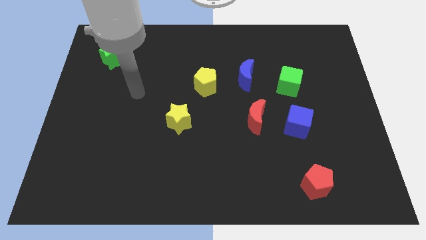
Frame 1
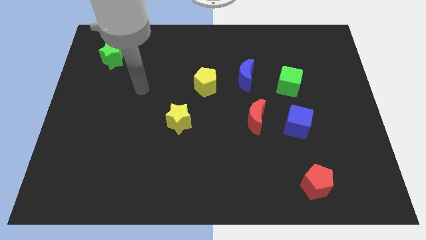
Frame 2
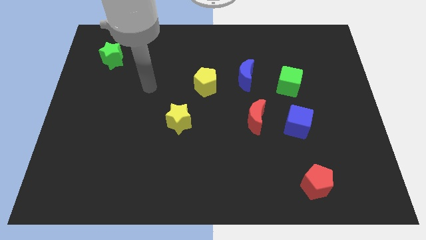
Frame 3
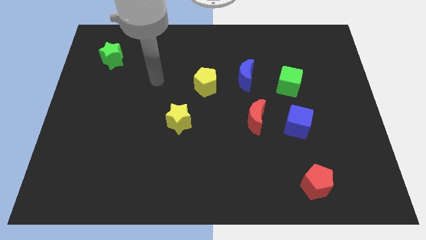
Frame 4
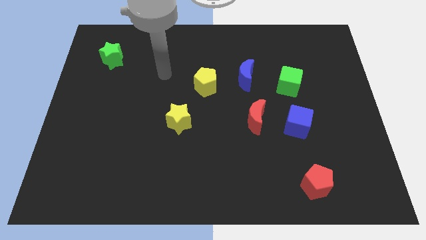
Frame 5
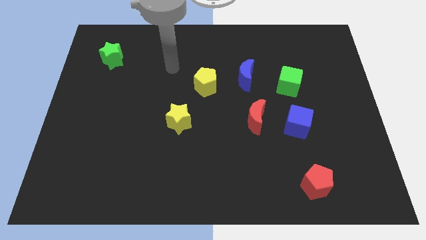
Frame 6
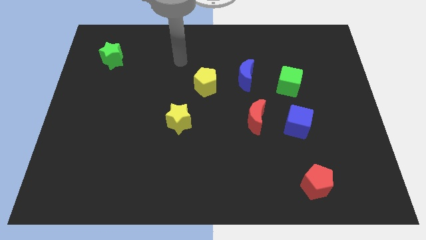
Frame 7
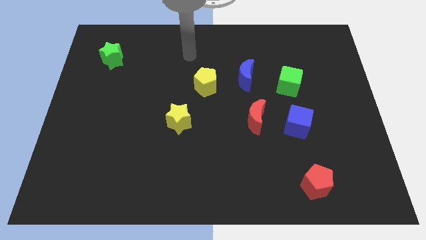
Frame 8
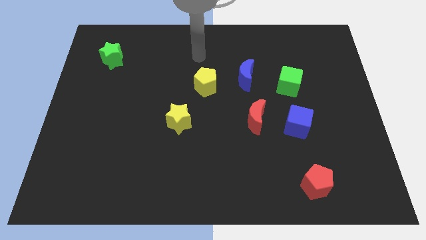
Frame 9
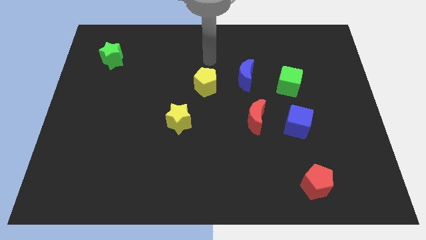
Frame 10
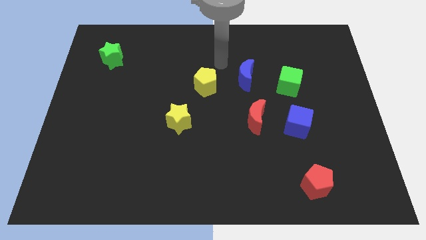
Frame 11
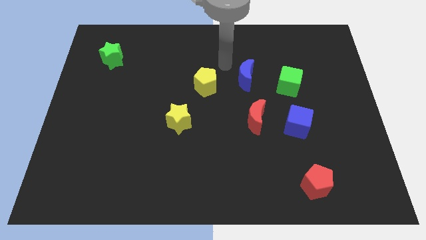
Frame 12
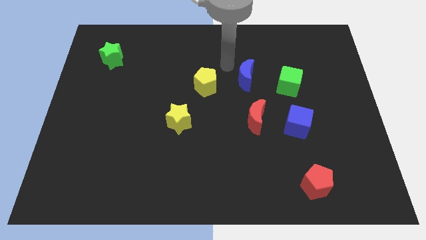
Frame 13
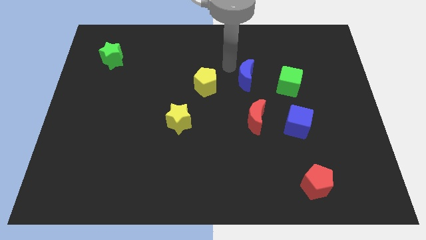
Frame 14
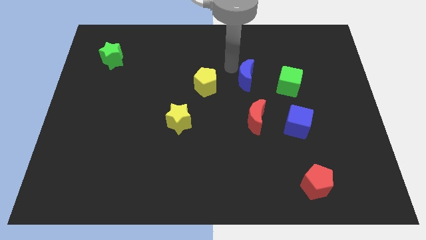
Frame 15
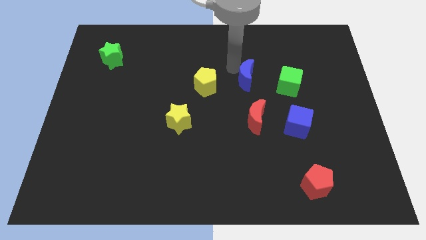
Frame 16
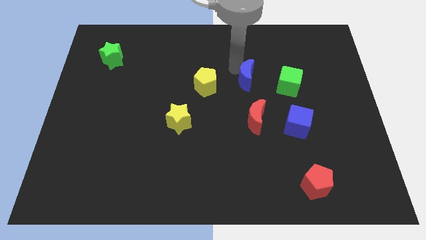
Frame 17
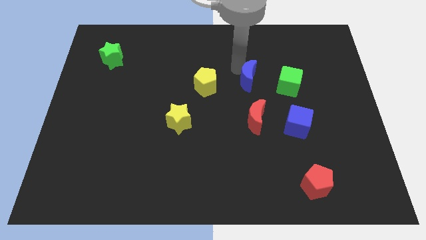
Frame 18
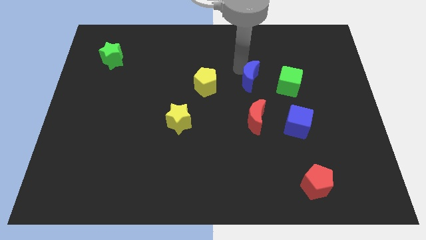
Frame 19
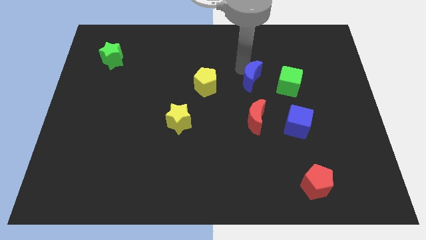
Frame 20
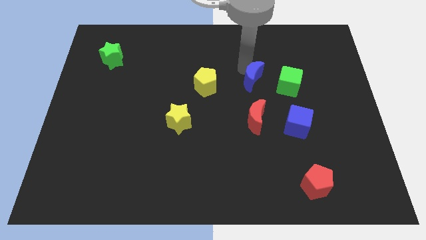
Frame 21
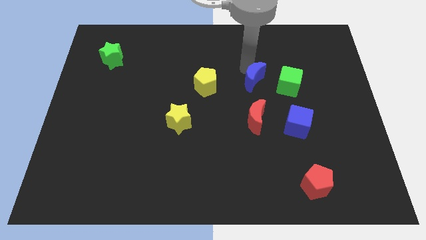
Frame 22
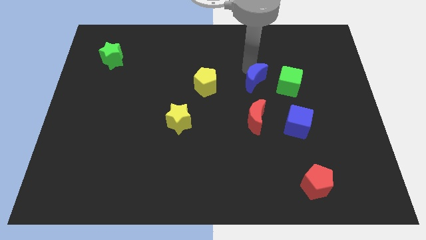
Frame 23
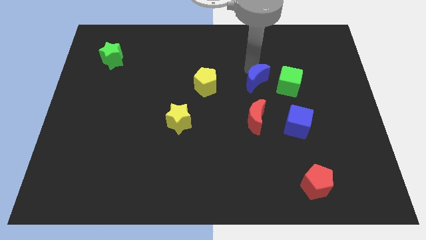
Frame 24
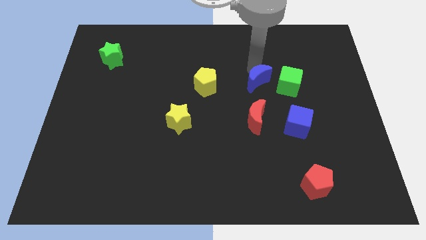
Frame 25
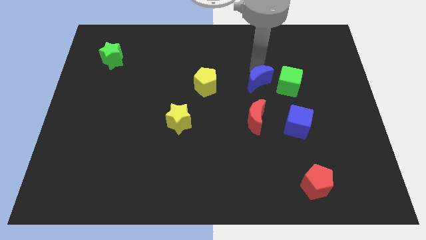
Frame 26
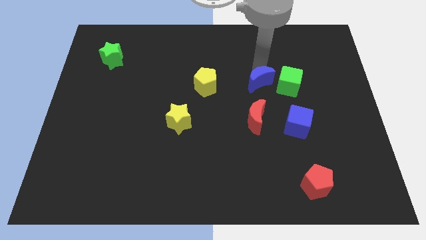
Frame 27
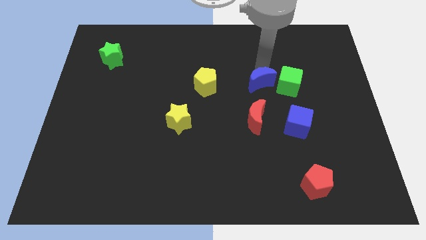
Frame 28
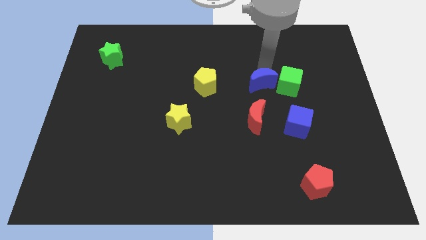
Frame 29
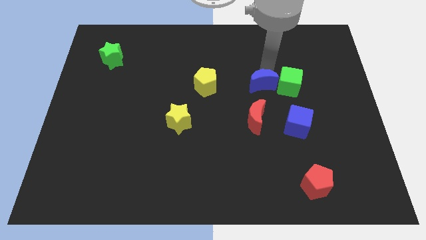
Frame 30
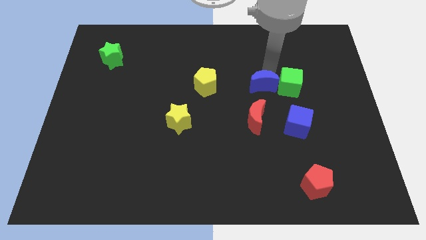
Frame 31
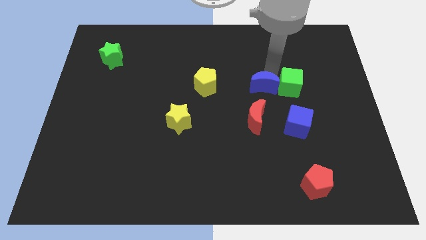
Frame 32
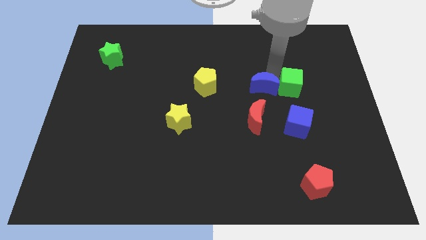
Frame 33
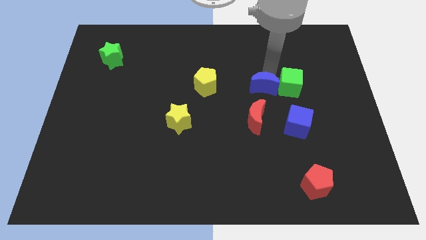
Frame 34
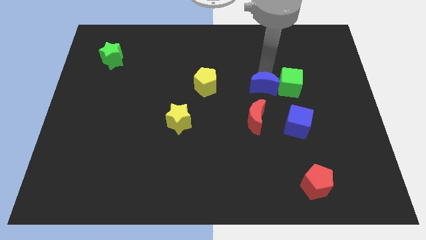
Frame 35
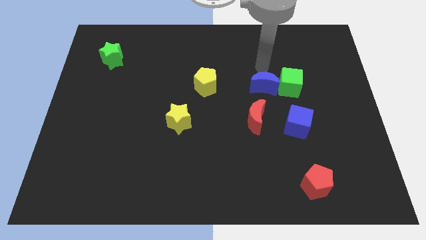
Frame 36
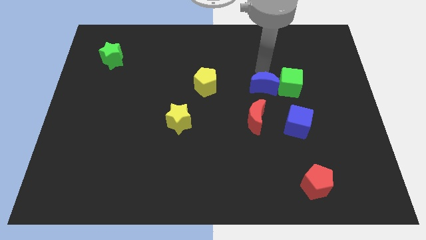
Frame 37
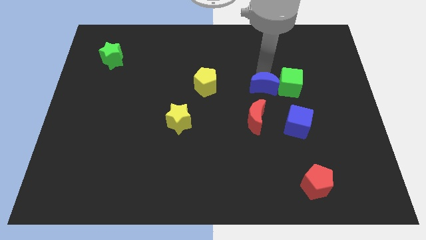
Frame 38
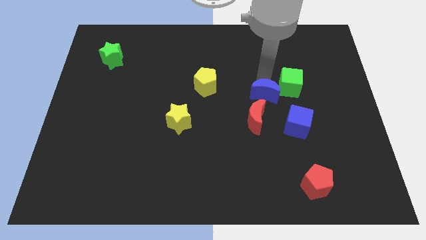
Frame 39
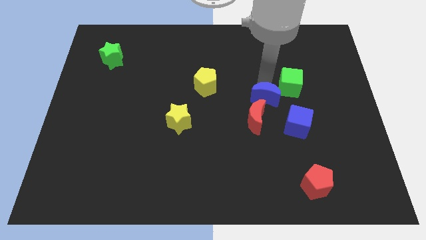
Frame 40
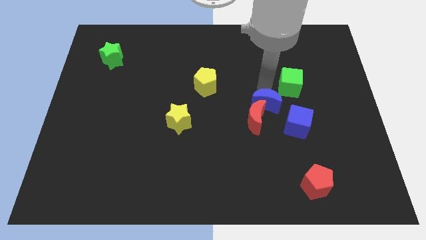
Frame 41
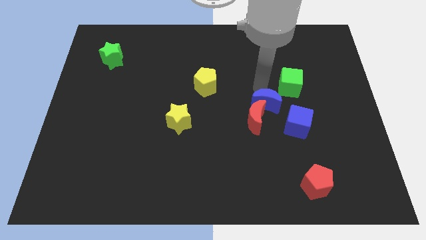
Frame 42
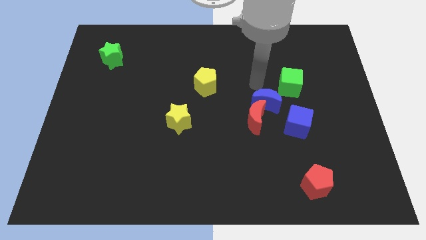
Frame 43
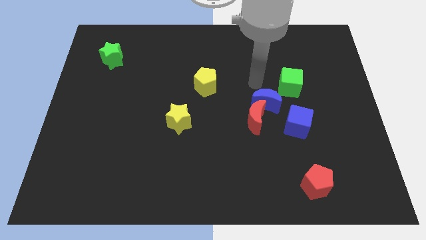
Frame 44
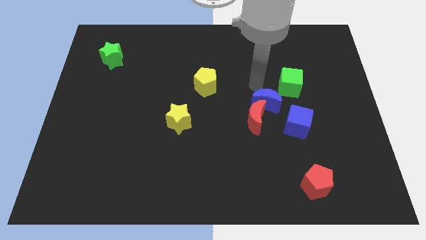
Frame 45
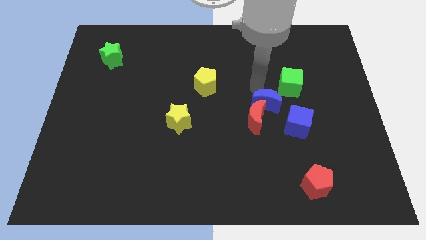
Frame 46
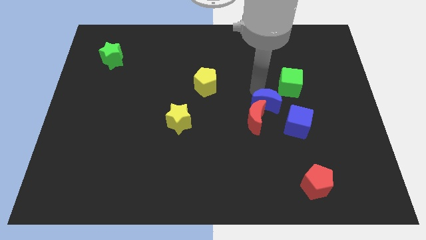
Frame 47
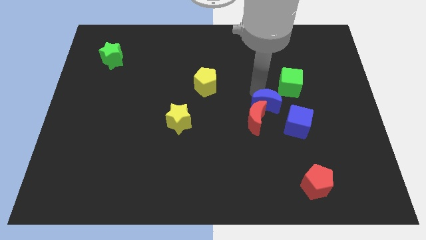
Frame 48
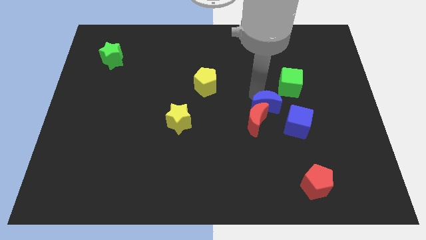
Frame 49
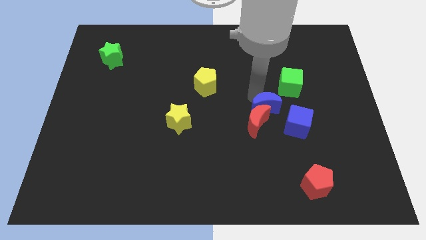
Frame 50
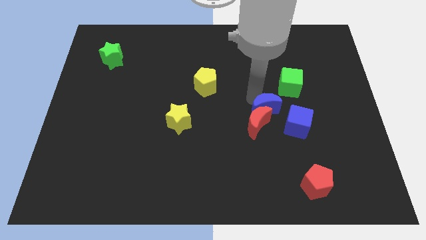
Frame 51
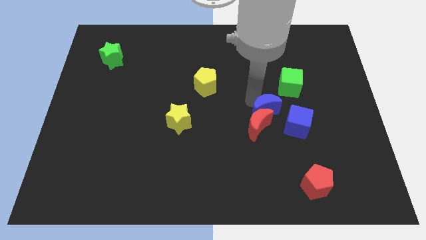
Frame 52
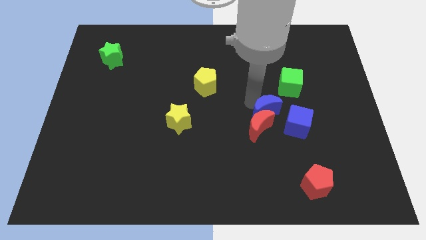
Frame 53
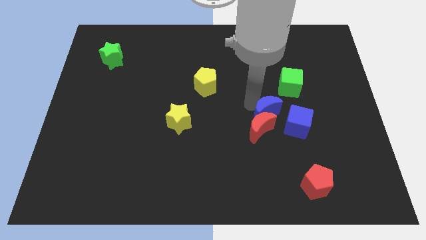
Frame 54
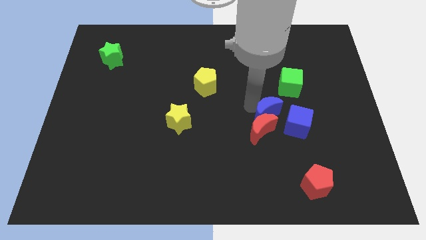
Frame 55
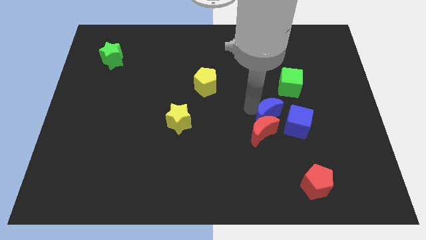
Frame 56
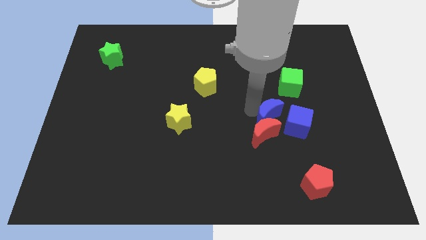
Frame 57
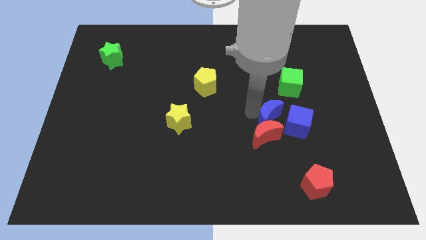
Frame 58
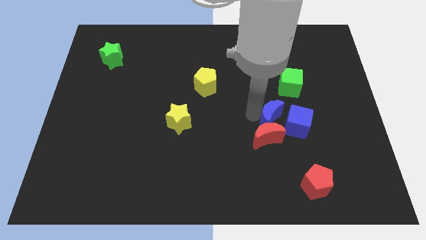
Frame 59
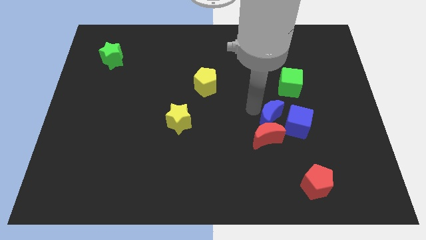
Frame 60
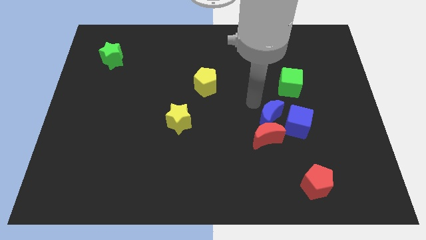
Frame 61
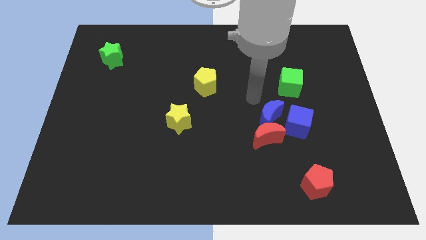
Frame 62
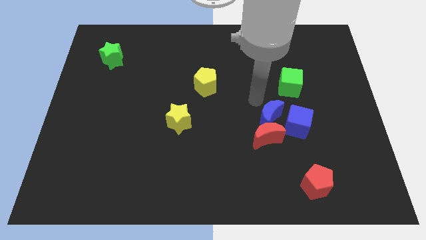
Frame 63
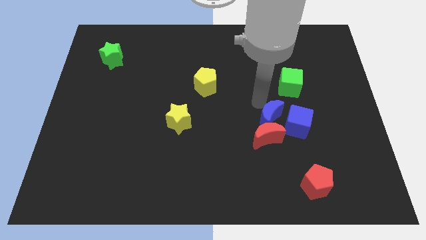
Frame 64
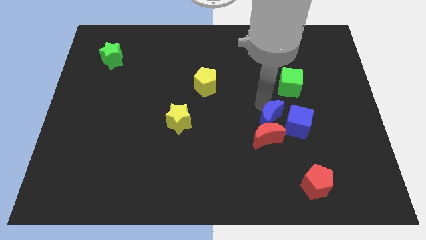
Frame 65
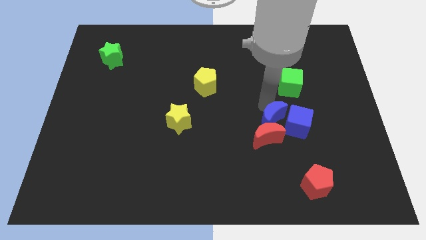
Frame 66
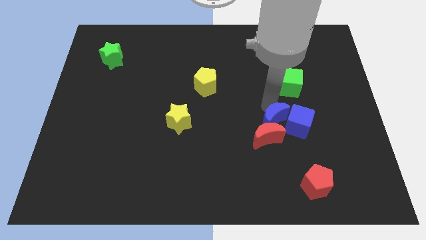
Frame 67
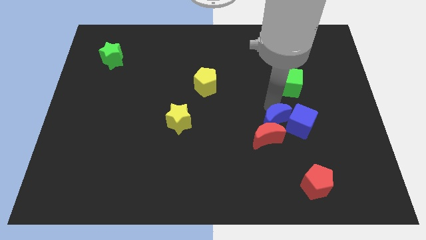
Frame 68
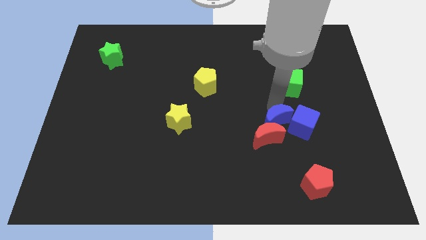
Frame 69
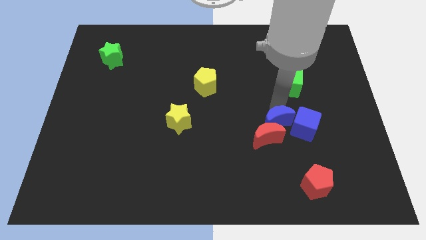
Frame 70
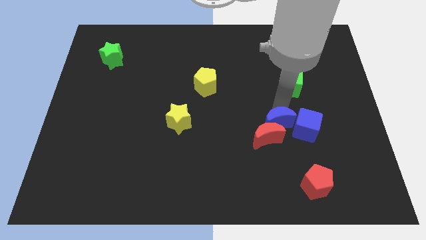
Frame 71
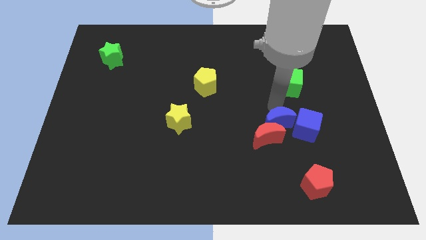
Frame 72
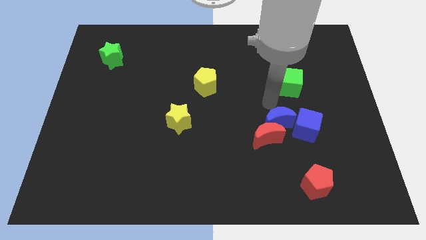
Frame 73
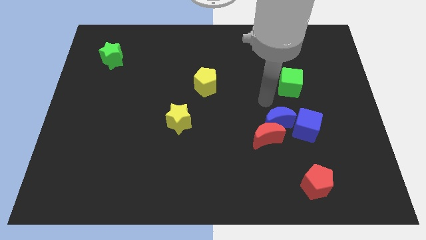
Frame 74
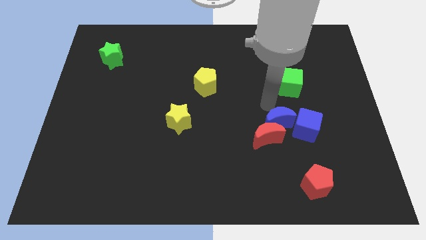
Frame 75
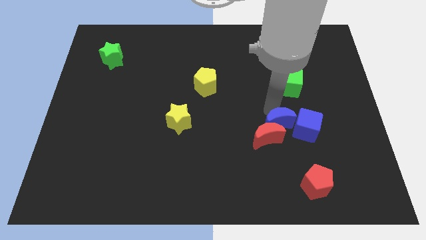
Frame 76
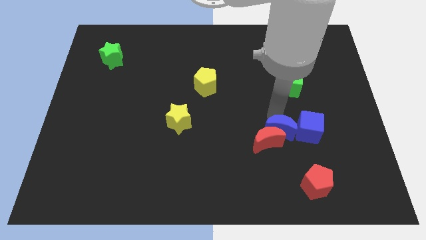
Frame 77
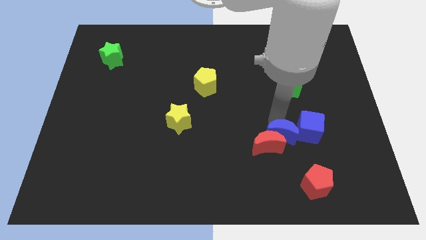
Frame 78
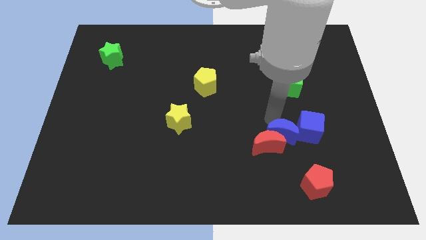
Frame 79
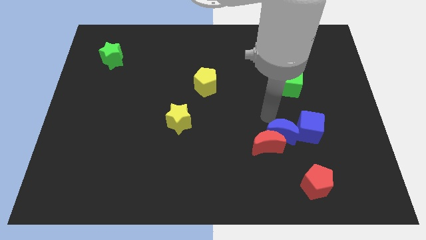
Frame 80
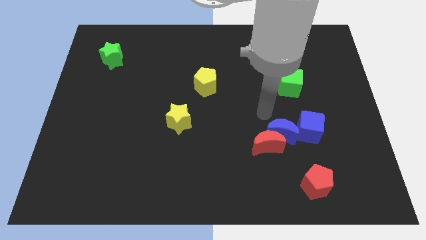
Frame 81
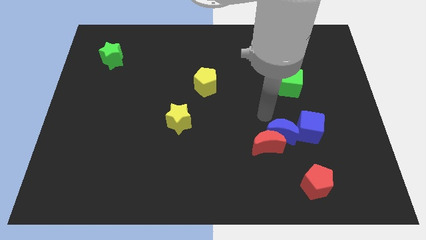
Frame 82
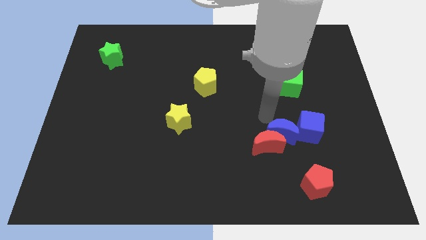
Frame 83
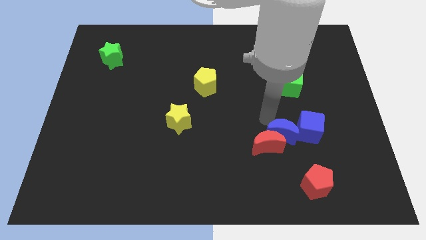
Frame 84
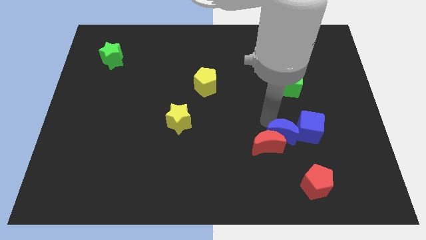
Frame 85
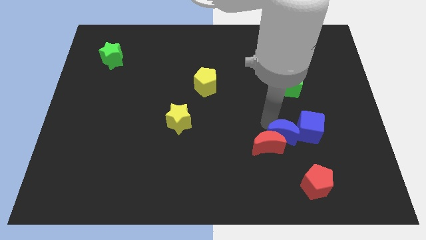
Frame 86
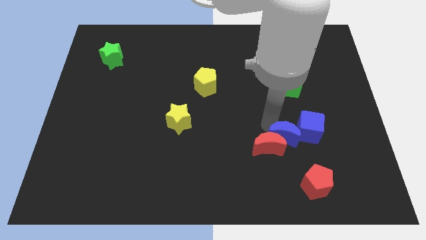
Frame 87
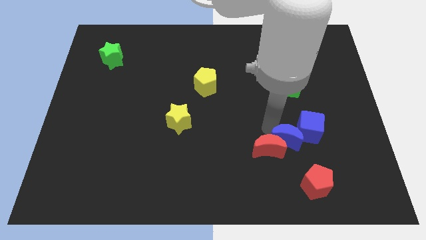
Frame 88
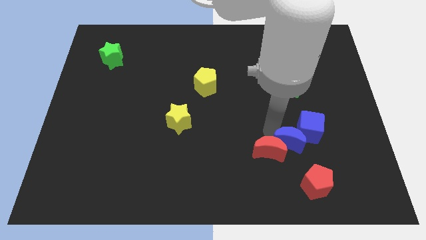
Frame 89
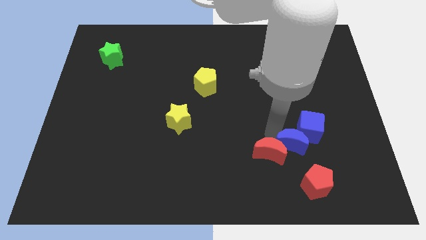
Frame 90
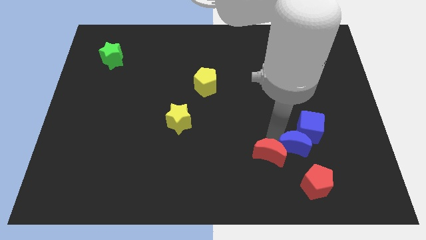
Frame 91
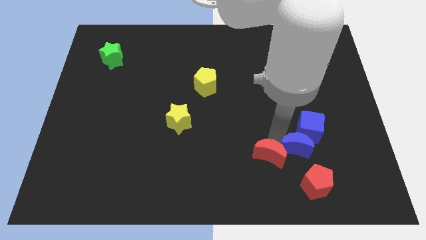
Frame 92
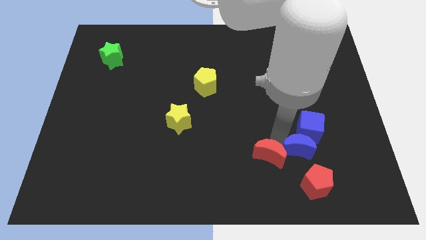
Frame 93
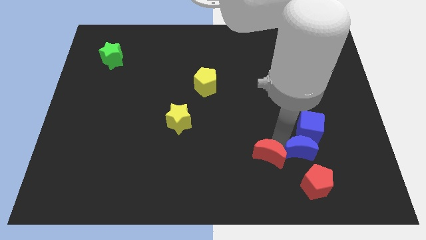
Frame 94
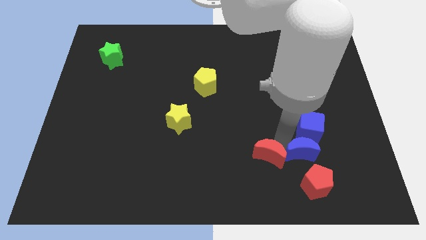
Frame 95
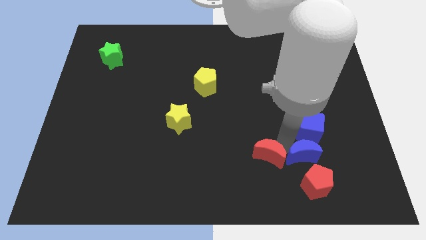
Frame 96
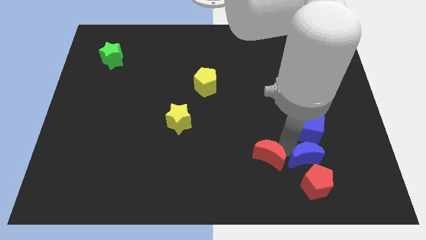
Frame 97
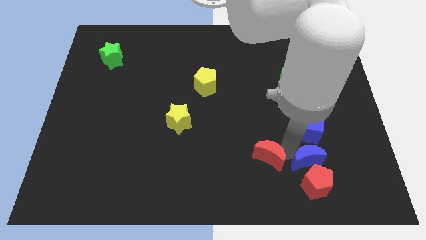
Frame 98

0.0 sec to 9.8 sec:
push the blue moon to the top right of the red pentagon
